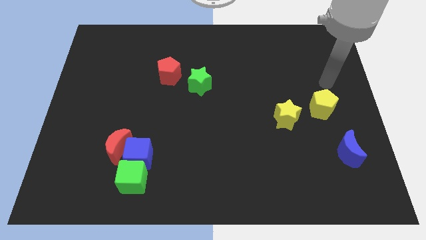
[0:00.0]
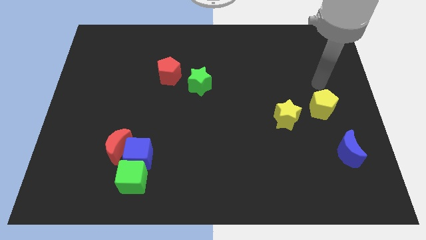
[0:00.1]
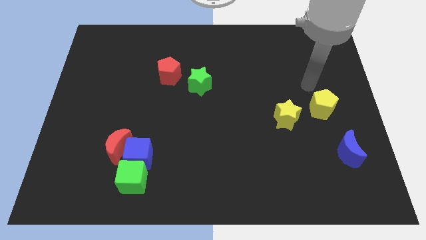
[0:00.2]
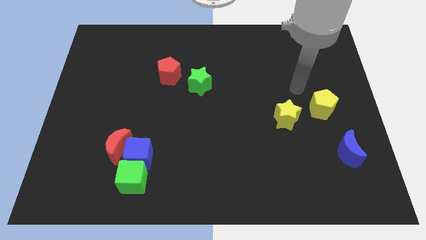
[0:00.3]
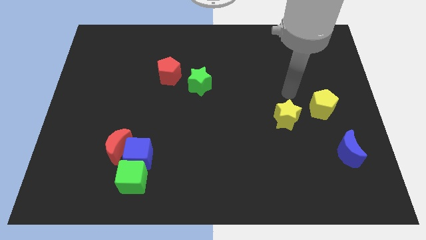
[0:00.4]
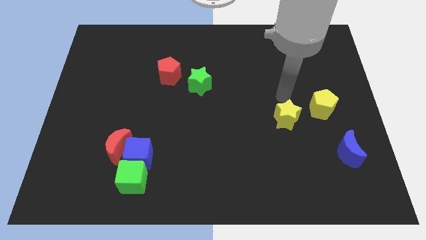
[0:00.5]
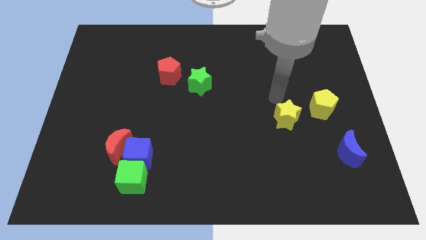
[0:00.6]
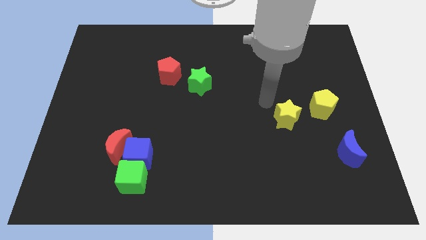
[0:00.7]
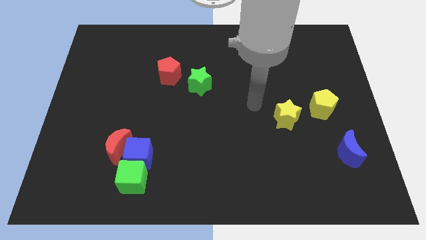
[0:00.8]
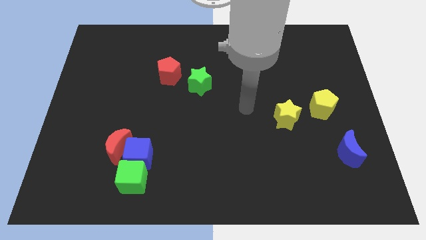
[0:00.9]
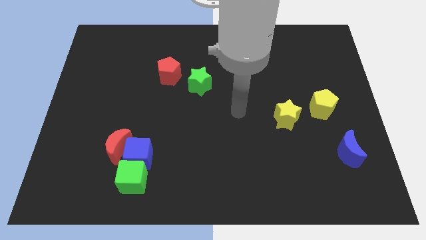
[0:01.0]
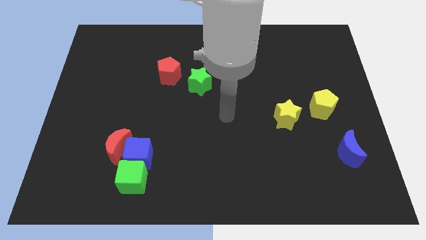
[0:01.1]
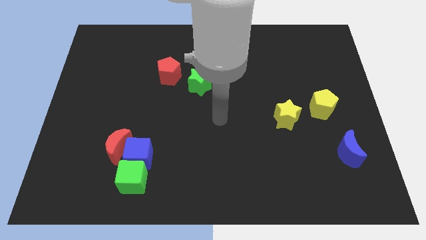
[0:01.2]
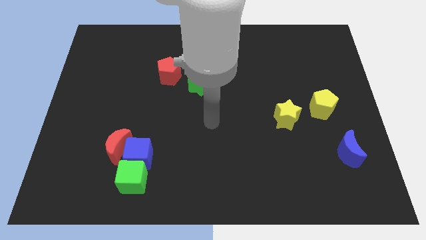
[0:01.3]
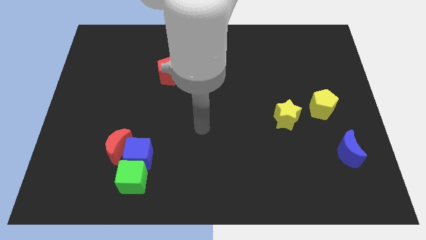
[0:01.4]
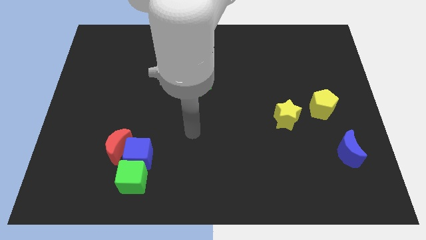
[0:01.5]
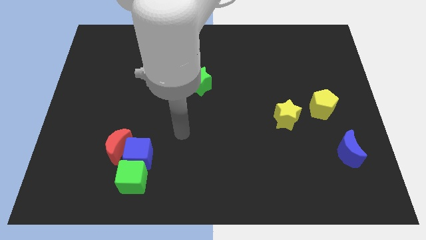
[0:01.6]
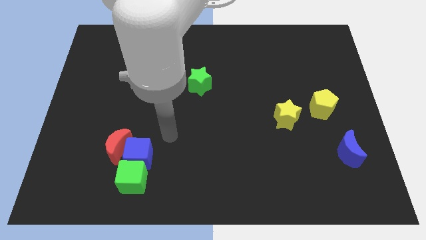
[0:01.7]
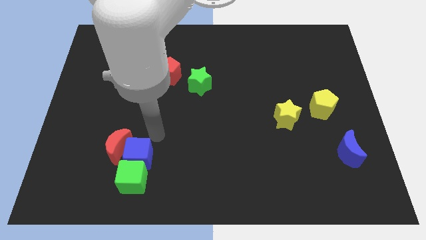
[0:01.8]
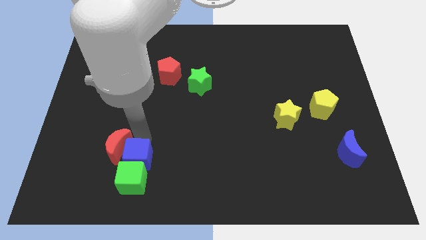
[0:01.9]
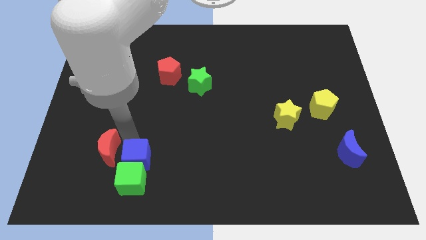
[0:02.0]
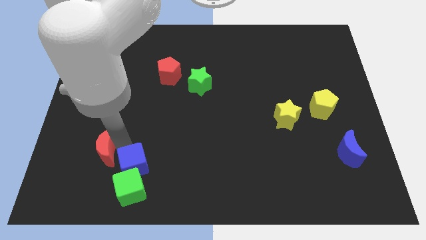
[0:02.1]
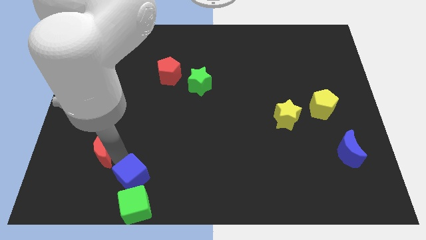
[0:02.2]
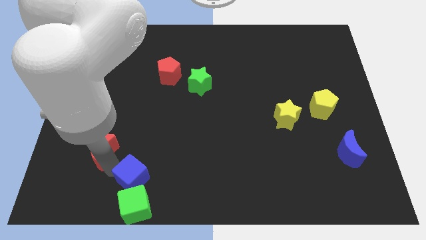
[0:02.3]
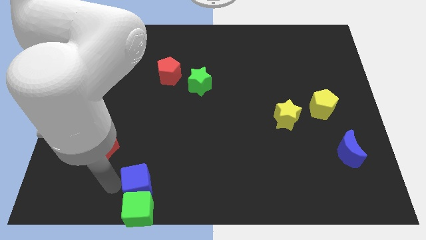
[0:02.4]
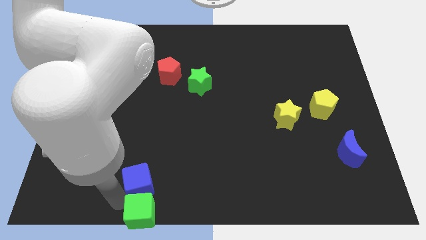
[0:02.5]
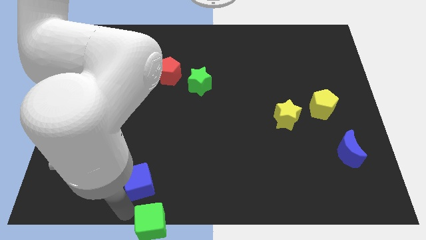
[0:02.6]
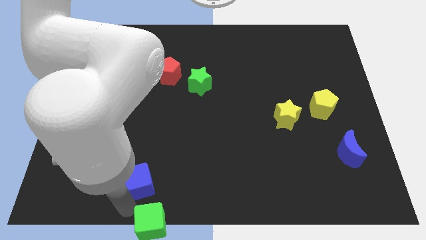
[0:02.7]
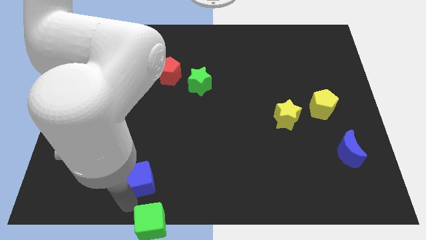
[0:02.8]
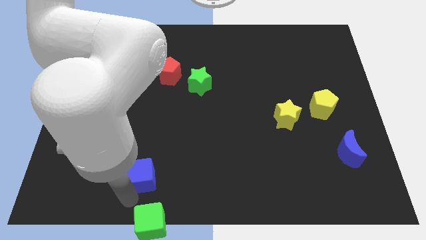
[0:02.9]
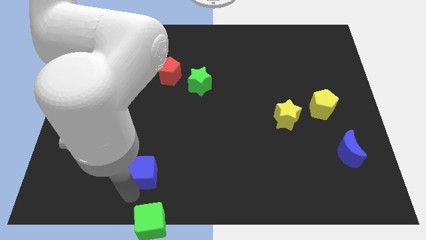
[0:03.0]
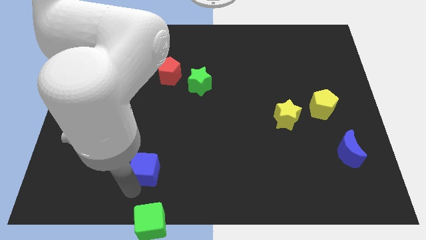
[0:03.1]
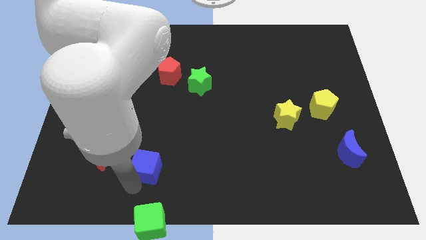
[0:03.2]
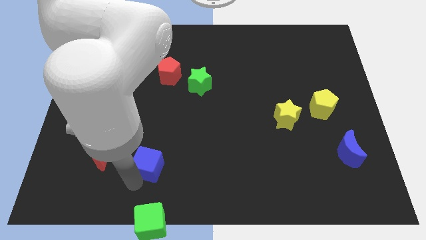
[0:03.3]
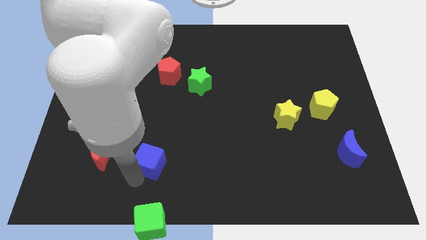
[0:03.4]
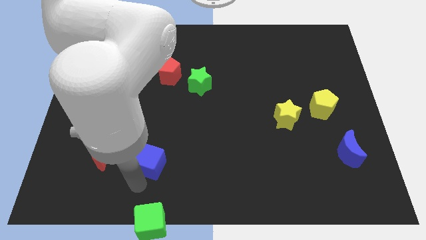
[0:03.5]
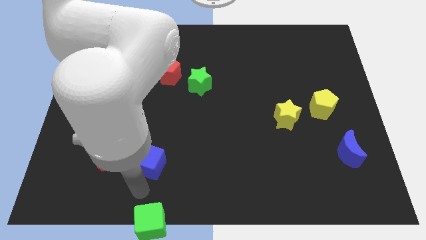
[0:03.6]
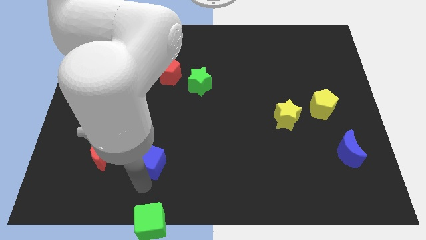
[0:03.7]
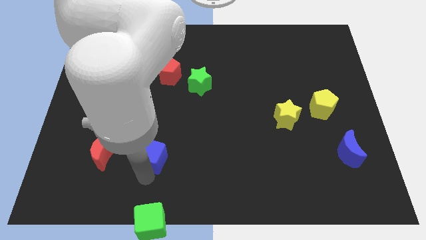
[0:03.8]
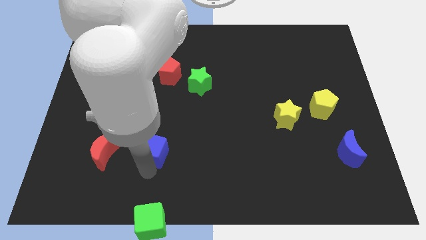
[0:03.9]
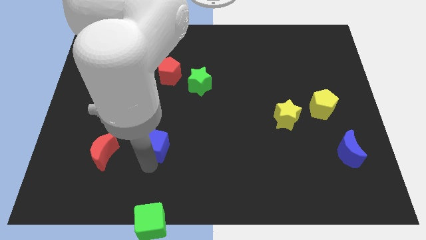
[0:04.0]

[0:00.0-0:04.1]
move the blue cube away from the red moon and green cube

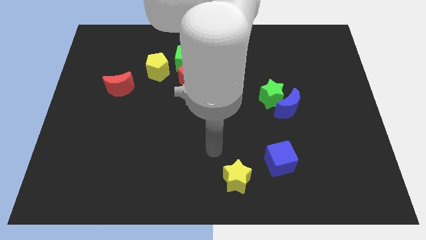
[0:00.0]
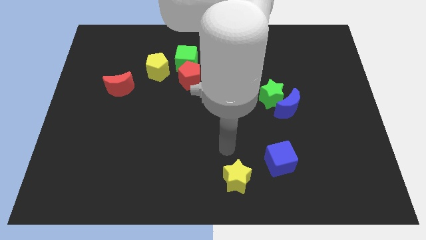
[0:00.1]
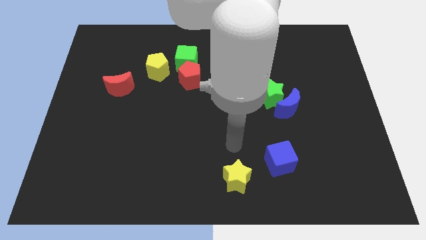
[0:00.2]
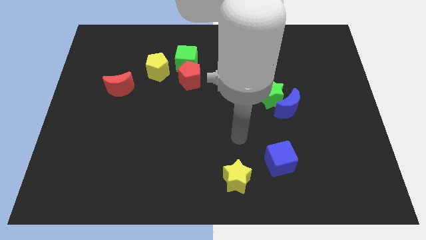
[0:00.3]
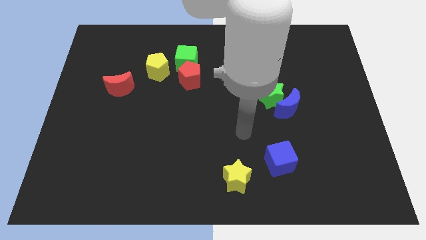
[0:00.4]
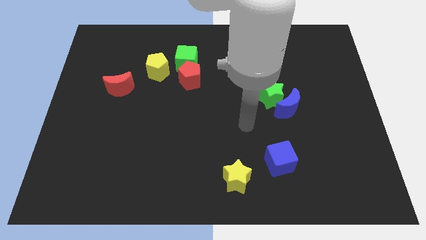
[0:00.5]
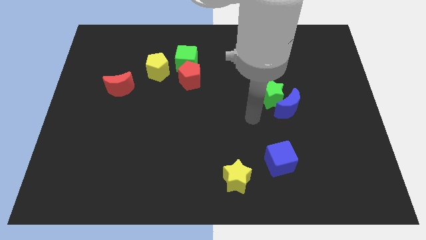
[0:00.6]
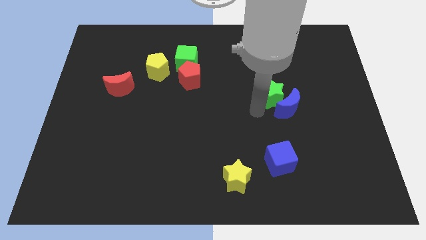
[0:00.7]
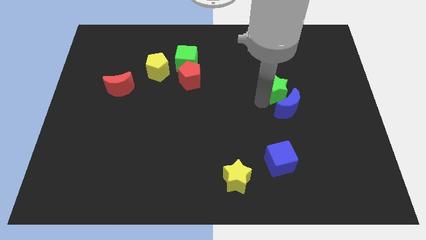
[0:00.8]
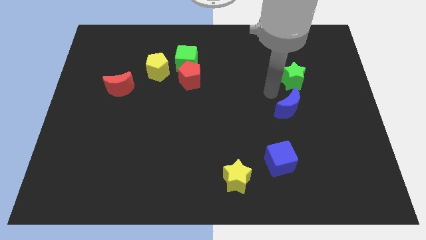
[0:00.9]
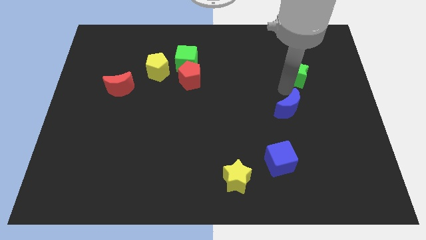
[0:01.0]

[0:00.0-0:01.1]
move the blue moon away from the green star

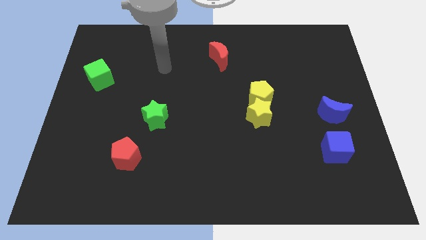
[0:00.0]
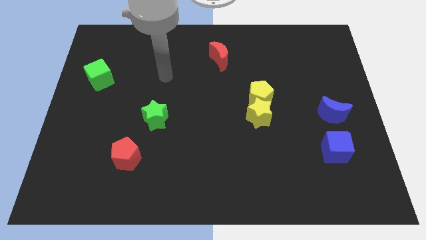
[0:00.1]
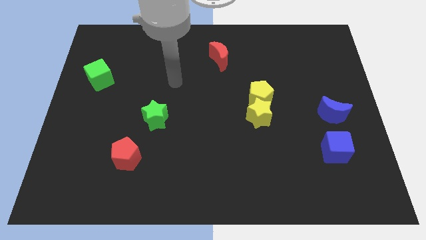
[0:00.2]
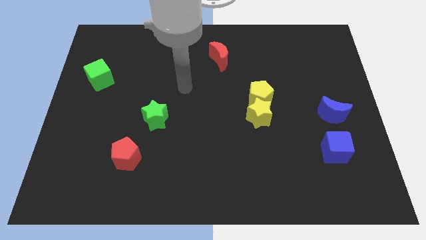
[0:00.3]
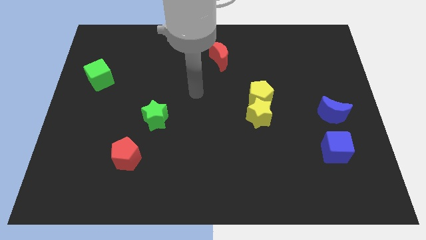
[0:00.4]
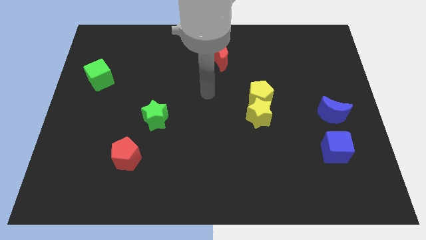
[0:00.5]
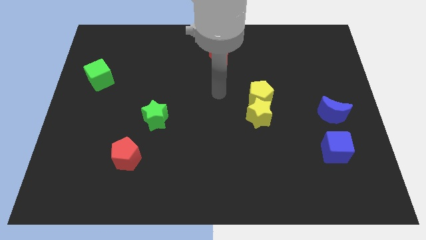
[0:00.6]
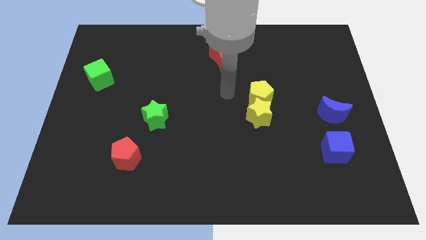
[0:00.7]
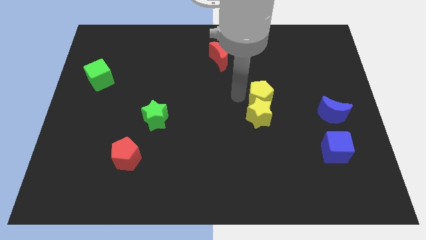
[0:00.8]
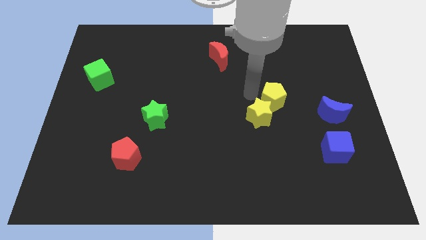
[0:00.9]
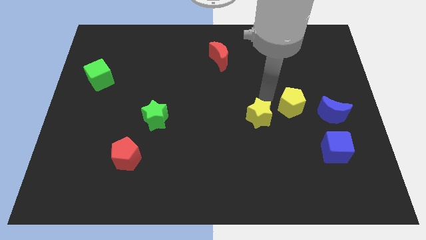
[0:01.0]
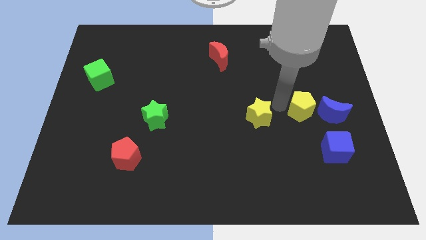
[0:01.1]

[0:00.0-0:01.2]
separate the yellow star from the yellow pentagon

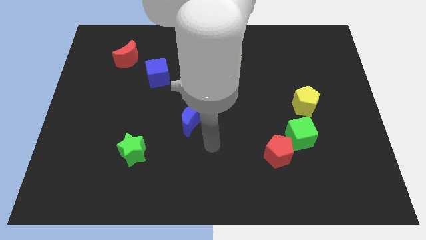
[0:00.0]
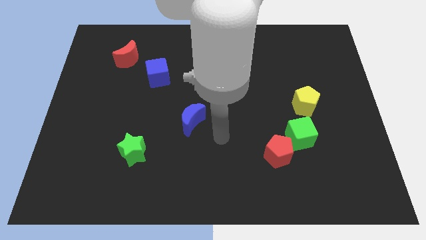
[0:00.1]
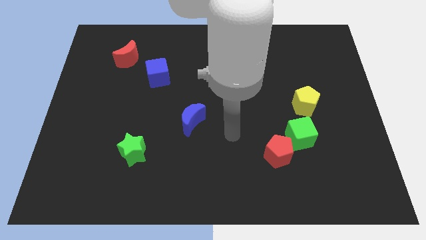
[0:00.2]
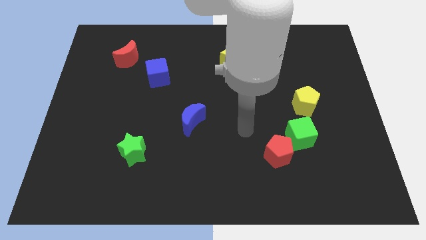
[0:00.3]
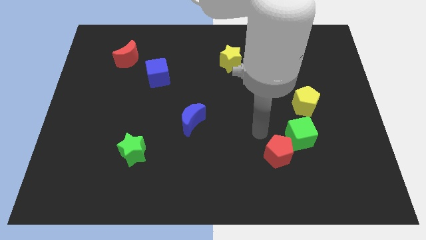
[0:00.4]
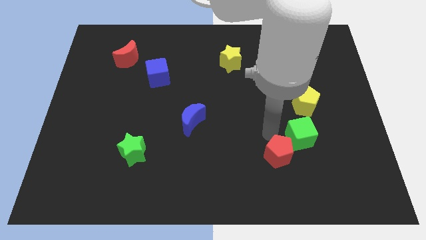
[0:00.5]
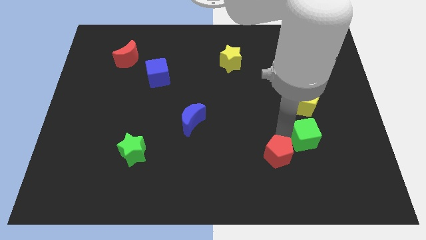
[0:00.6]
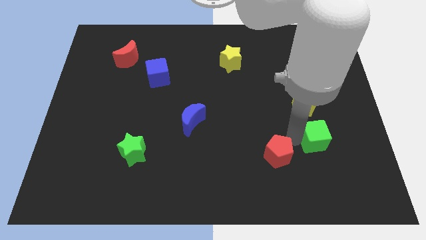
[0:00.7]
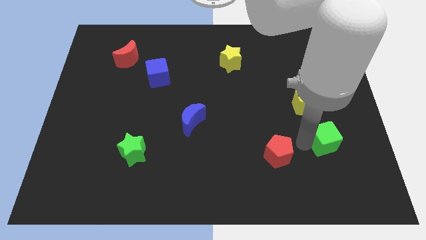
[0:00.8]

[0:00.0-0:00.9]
separate the red pentagon from the green cube

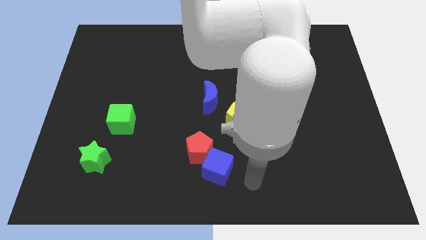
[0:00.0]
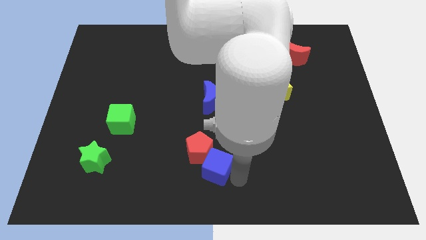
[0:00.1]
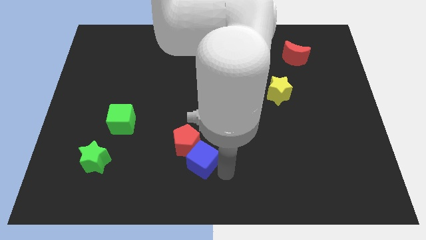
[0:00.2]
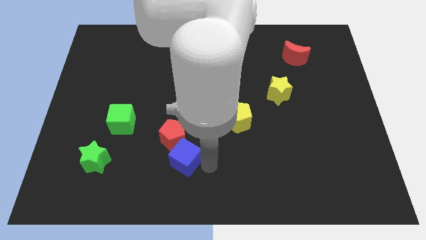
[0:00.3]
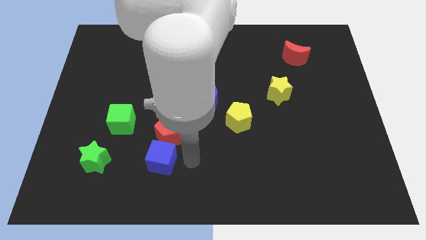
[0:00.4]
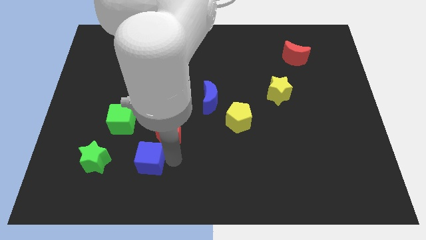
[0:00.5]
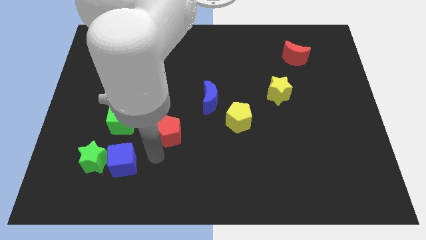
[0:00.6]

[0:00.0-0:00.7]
pull the red pentagon apart from the blue cube

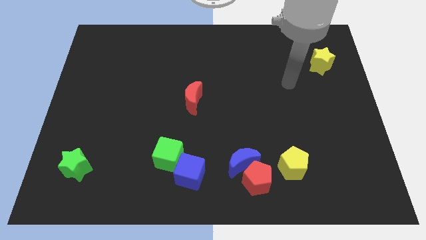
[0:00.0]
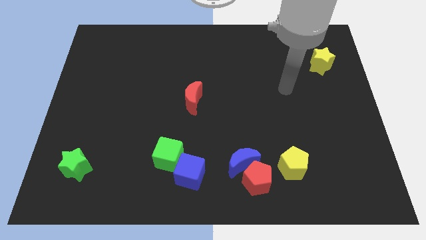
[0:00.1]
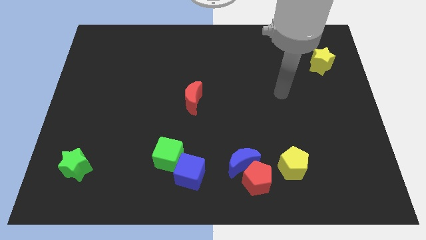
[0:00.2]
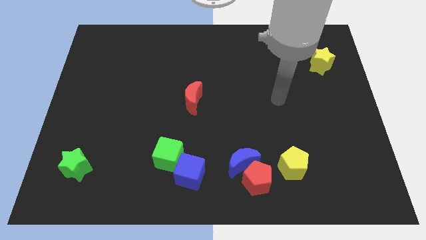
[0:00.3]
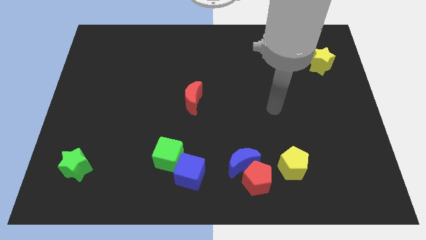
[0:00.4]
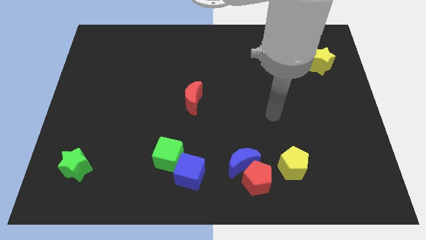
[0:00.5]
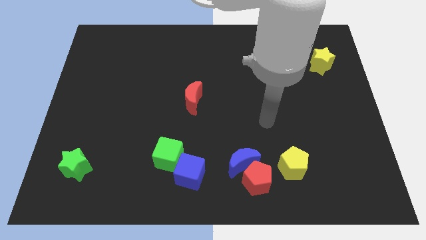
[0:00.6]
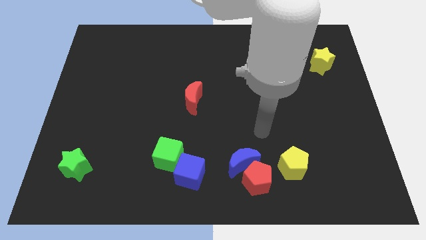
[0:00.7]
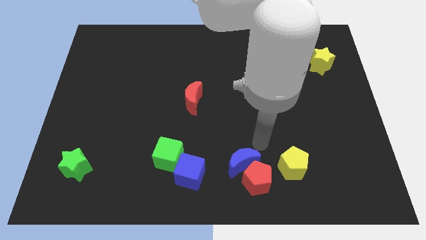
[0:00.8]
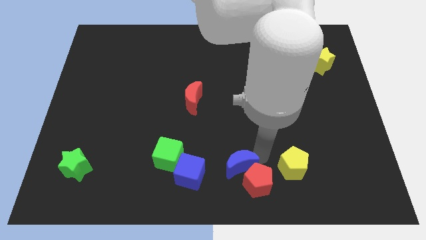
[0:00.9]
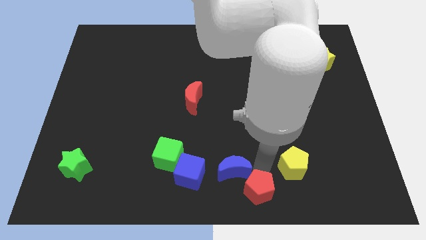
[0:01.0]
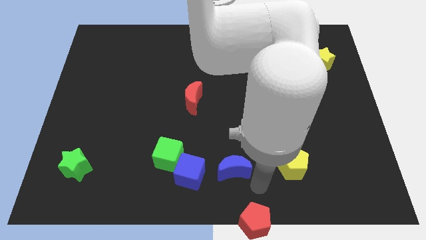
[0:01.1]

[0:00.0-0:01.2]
separate the blue moon from the red pentagon

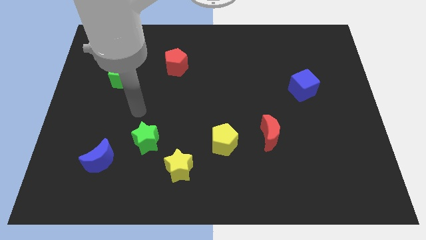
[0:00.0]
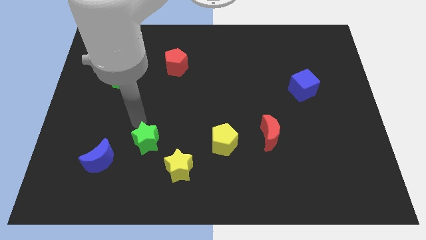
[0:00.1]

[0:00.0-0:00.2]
pull the blue moon apart from the green star
